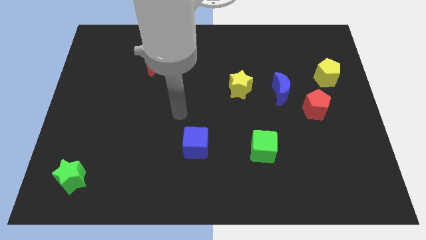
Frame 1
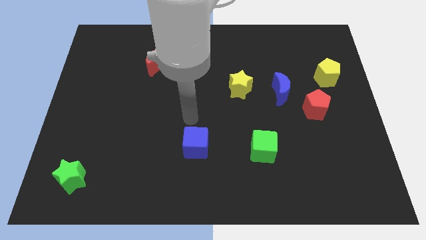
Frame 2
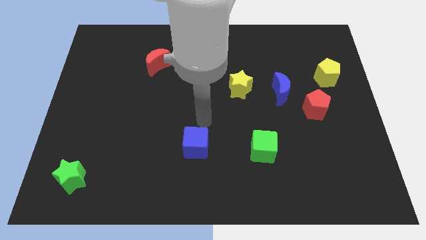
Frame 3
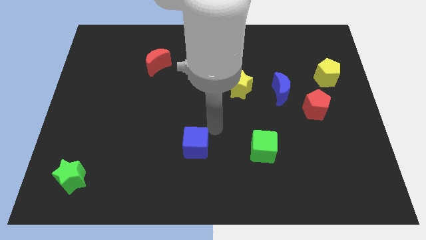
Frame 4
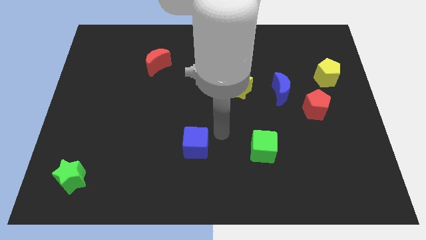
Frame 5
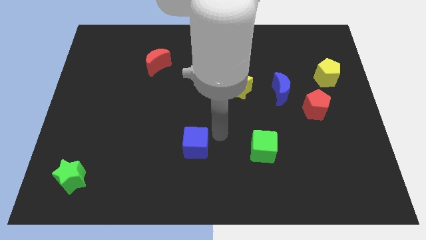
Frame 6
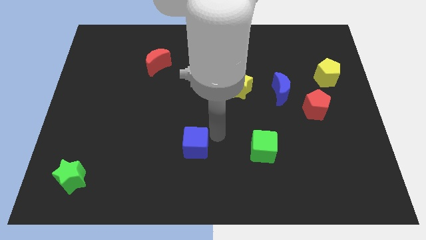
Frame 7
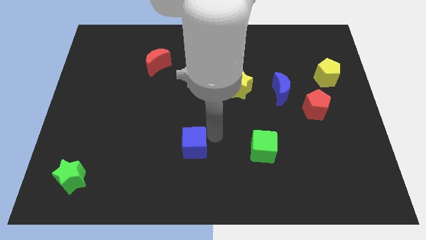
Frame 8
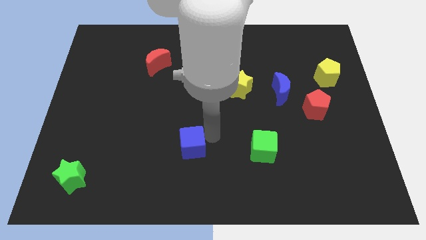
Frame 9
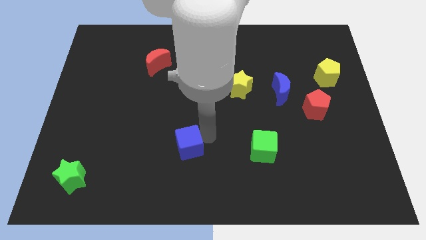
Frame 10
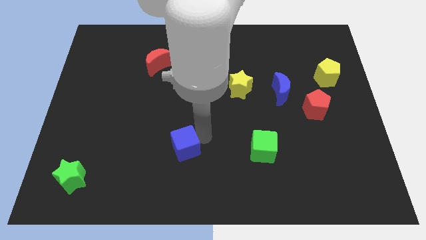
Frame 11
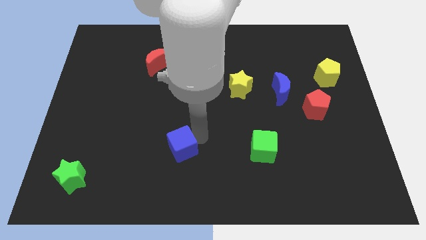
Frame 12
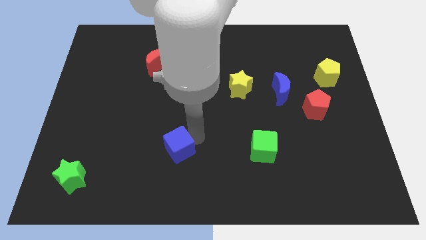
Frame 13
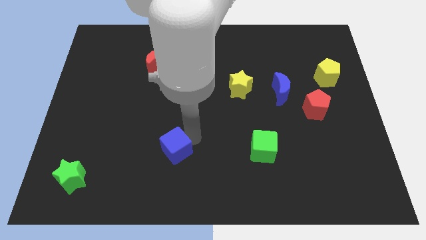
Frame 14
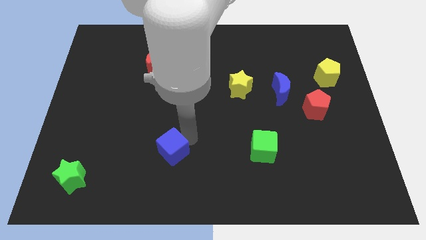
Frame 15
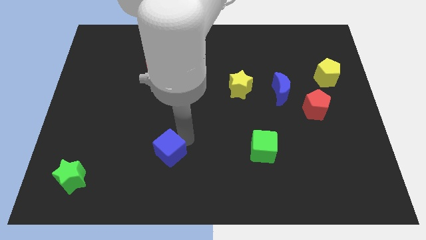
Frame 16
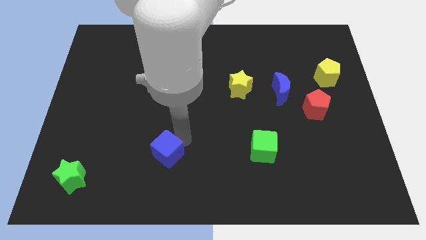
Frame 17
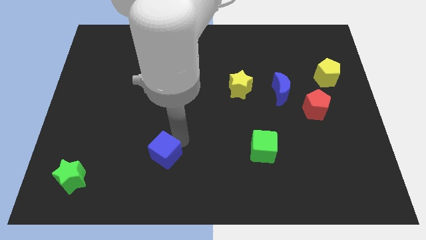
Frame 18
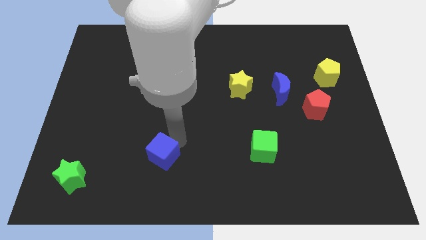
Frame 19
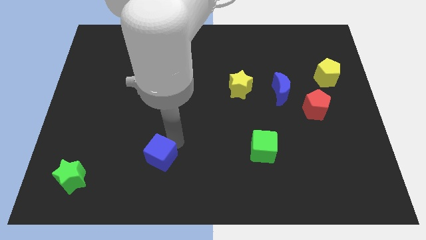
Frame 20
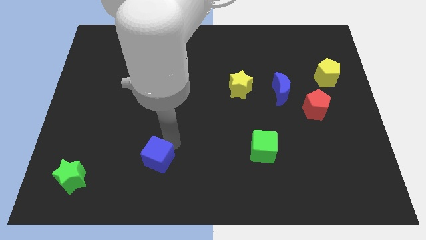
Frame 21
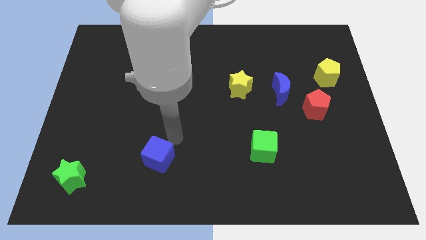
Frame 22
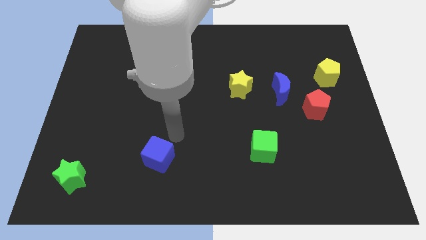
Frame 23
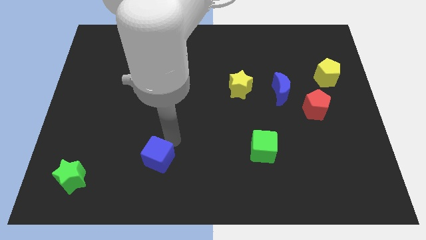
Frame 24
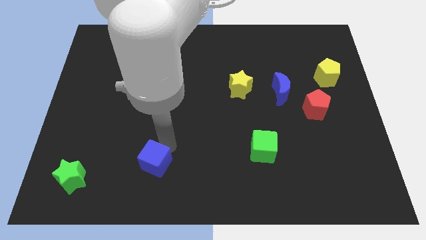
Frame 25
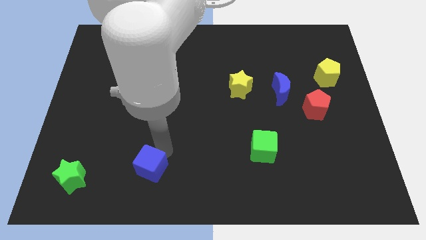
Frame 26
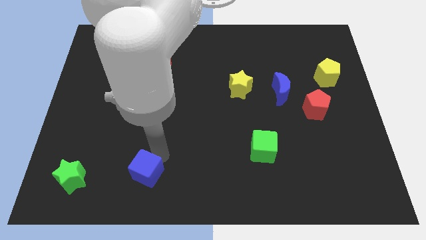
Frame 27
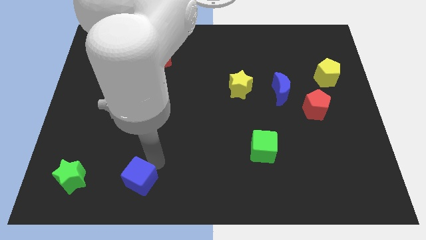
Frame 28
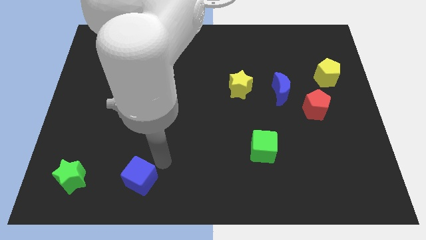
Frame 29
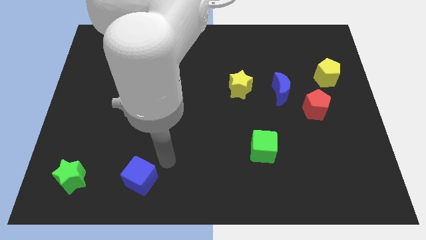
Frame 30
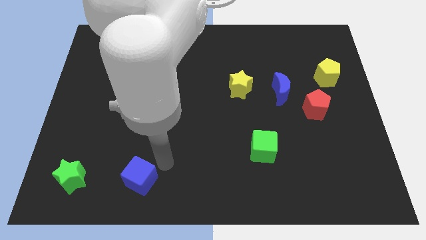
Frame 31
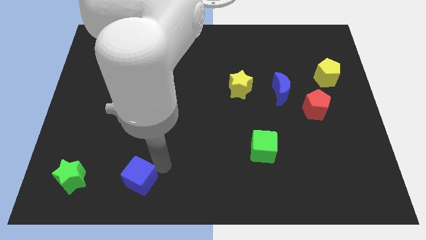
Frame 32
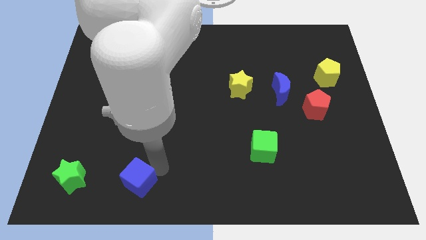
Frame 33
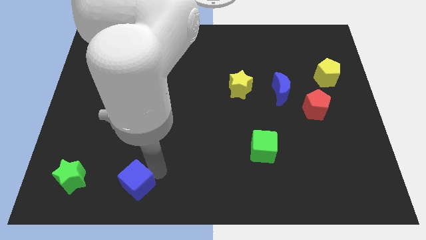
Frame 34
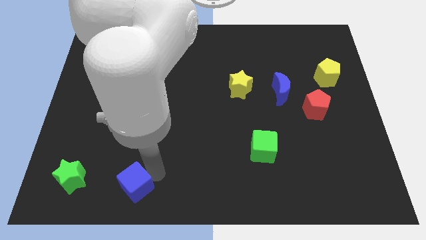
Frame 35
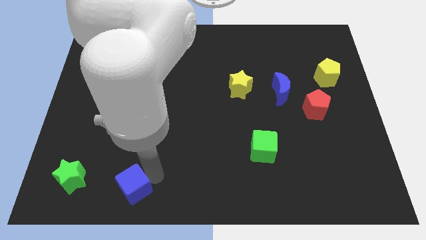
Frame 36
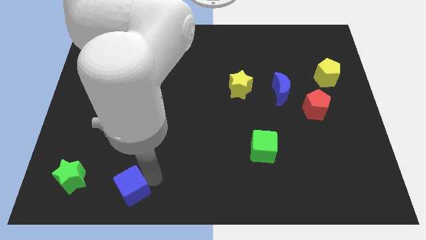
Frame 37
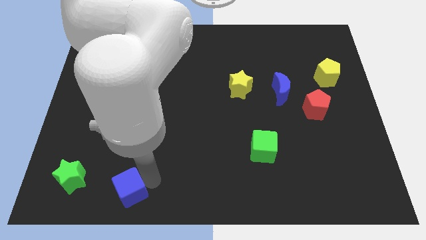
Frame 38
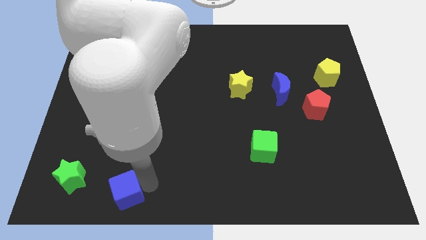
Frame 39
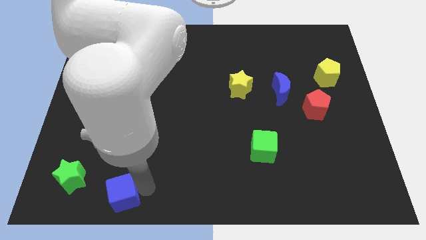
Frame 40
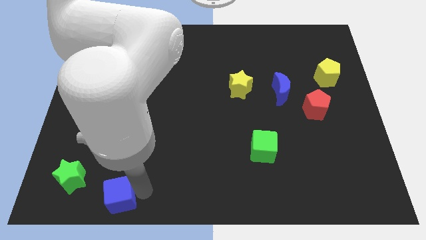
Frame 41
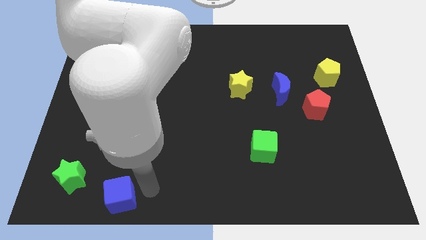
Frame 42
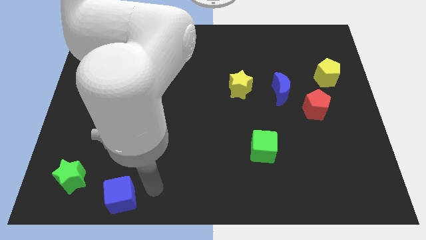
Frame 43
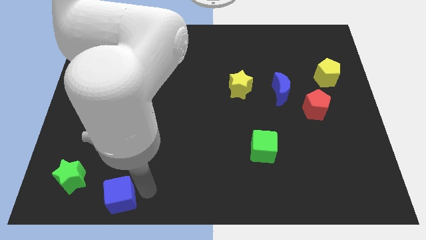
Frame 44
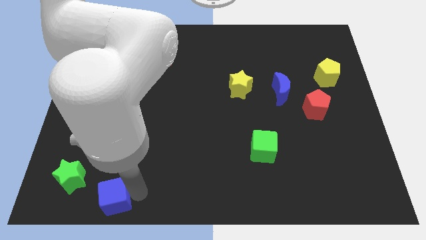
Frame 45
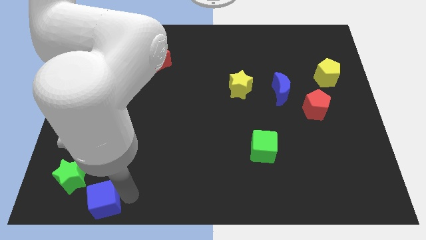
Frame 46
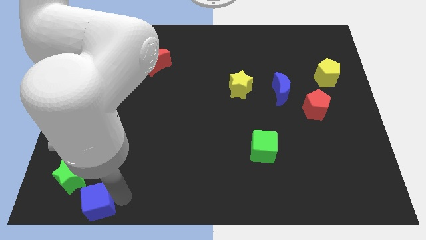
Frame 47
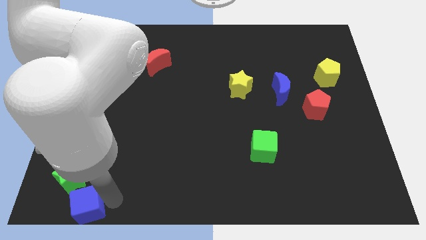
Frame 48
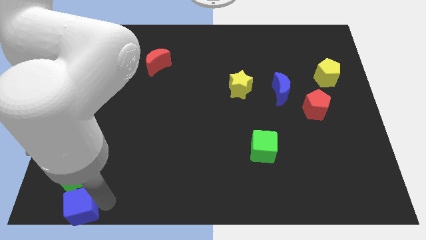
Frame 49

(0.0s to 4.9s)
put the blue cube to the bottom left

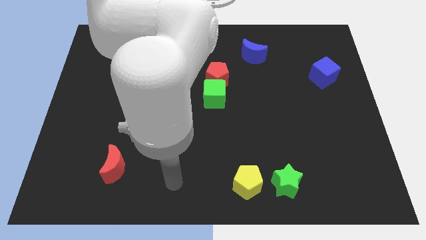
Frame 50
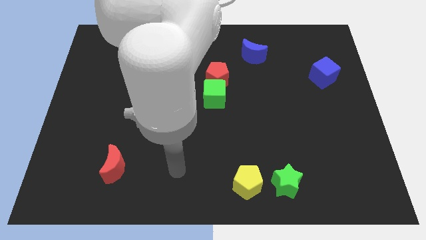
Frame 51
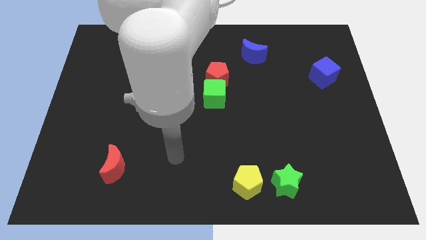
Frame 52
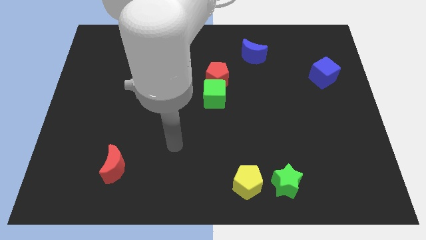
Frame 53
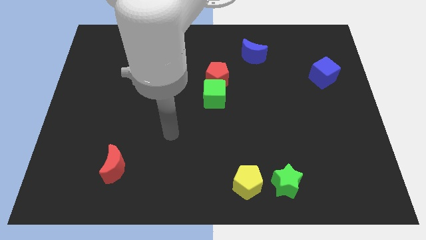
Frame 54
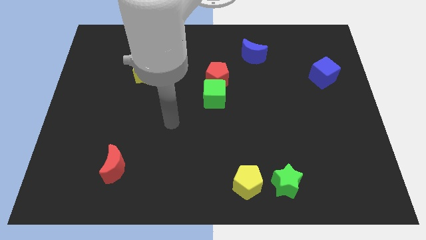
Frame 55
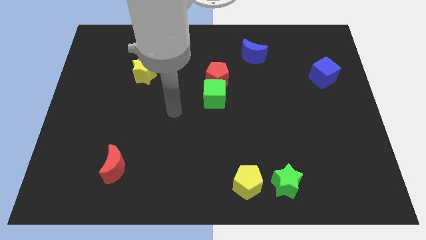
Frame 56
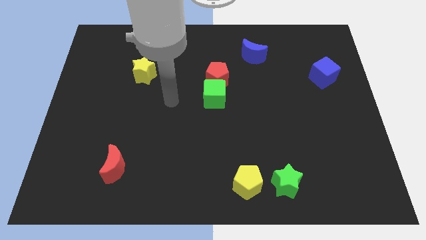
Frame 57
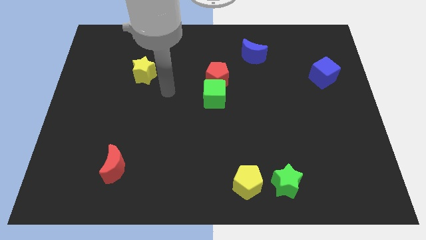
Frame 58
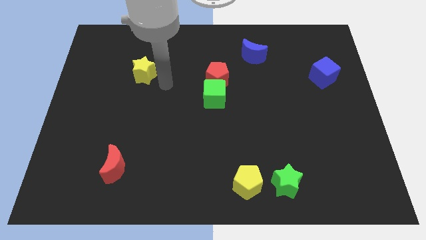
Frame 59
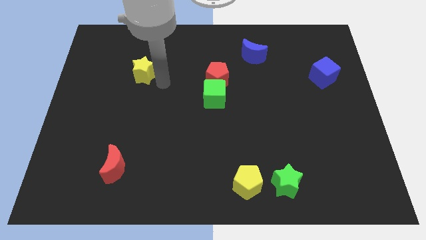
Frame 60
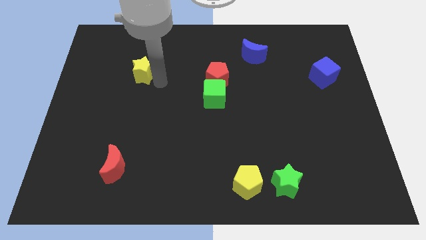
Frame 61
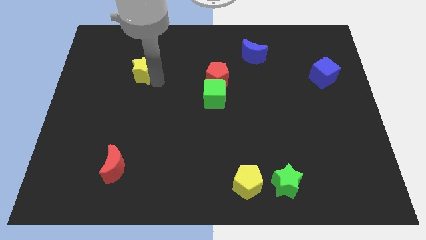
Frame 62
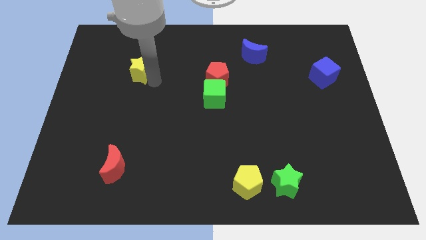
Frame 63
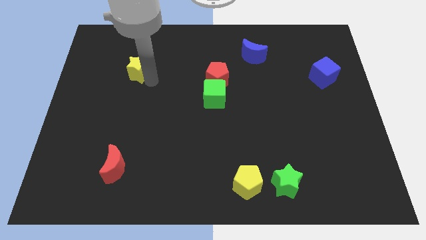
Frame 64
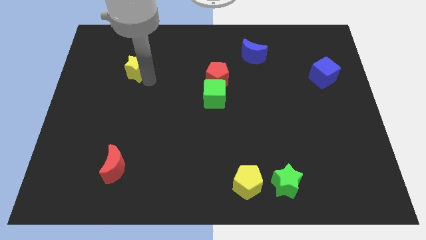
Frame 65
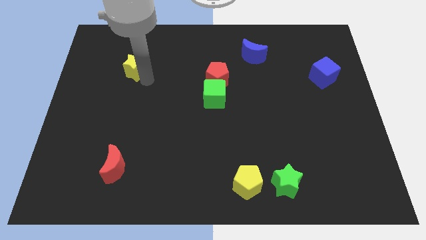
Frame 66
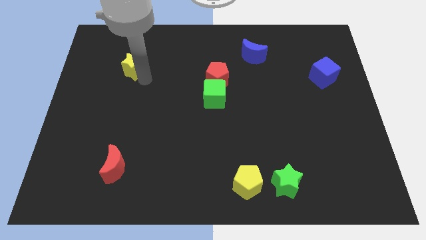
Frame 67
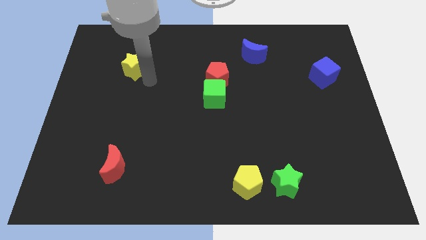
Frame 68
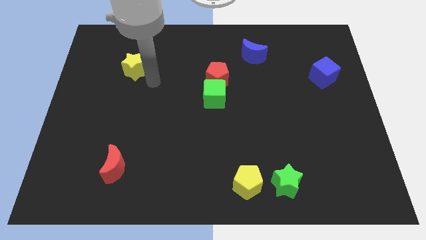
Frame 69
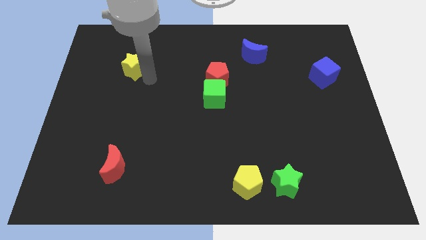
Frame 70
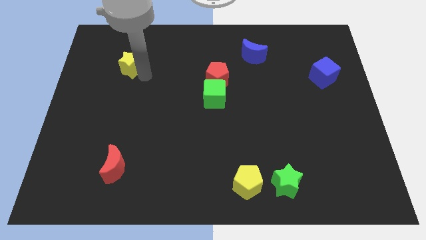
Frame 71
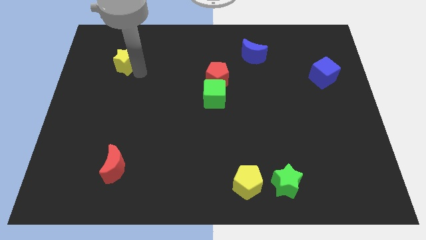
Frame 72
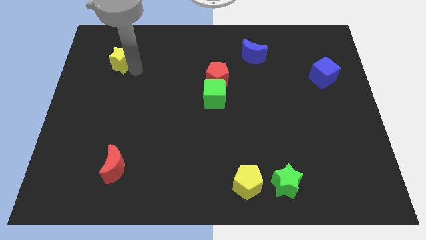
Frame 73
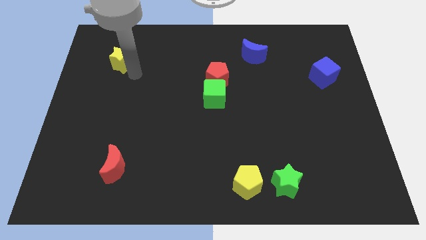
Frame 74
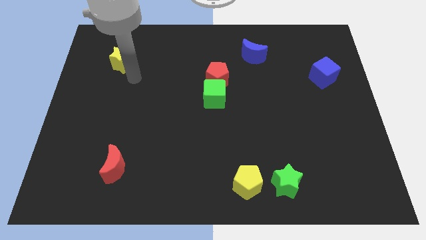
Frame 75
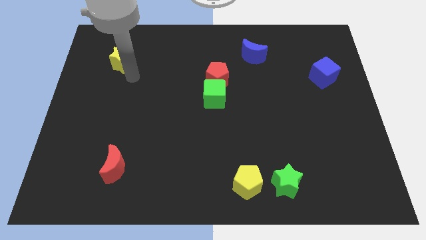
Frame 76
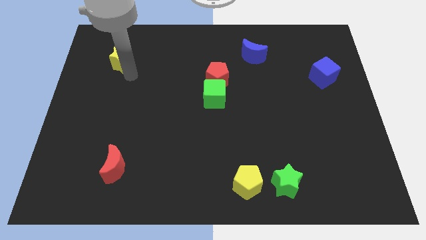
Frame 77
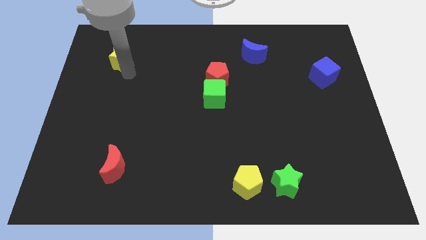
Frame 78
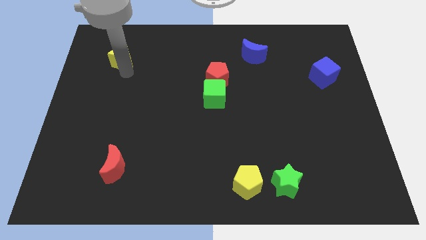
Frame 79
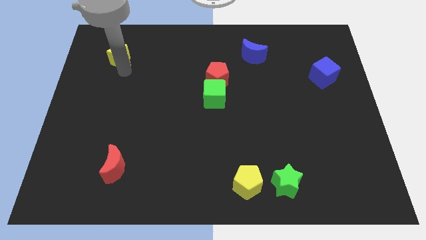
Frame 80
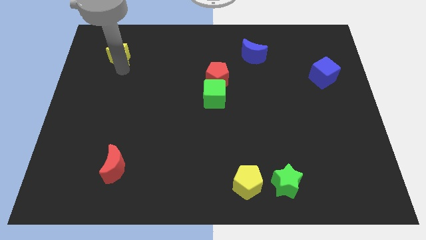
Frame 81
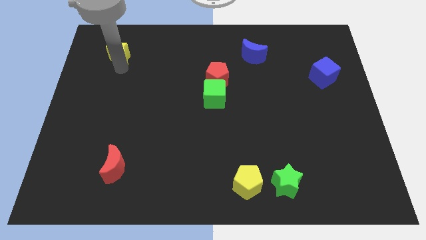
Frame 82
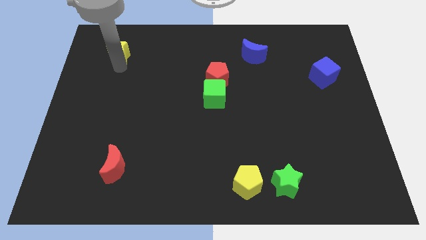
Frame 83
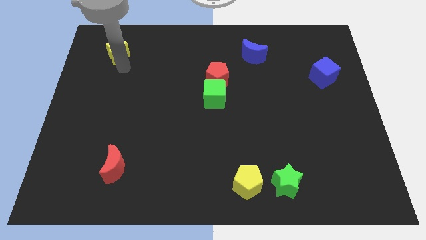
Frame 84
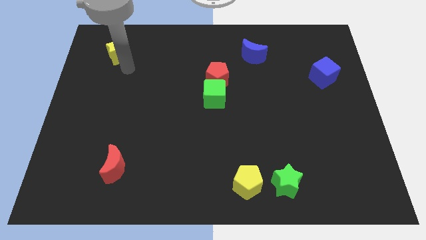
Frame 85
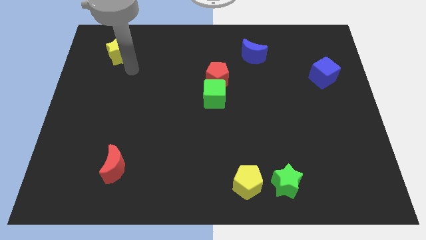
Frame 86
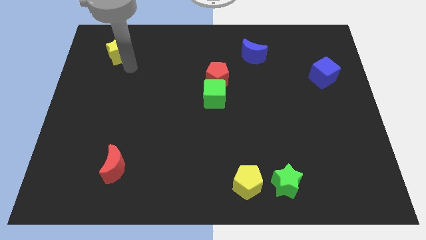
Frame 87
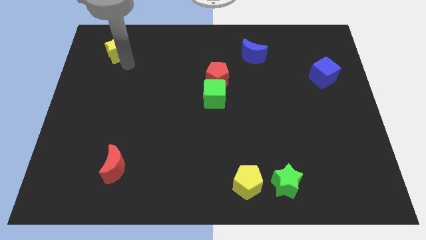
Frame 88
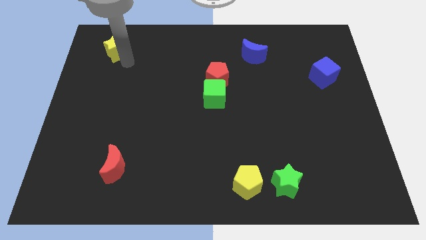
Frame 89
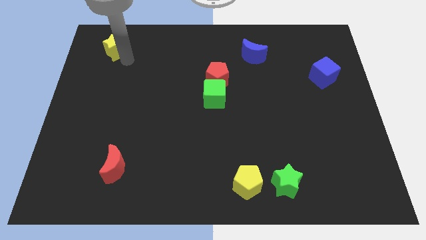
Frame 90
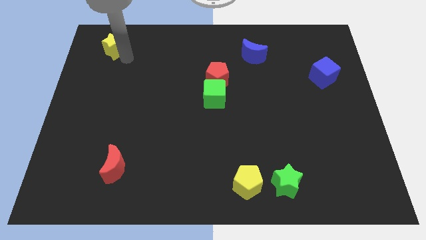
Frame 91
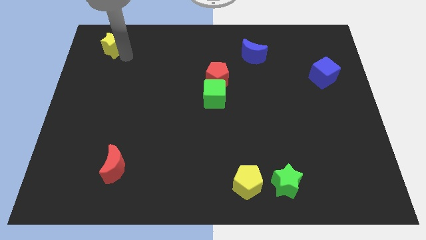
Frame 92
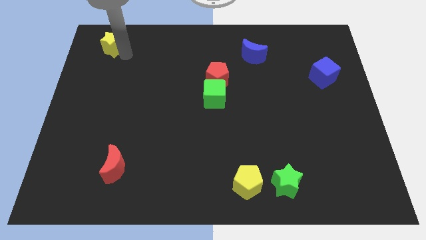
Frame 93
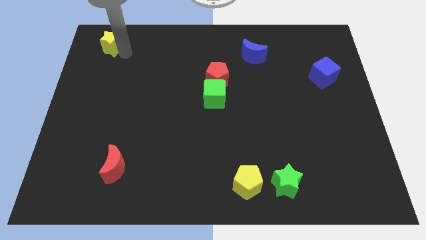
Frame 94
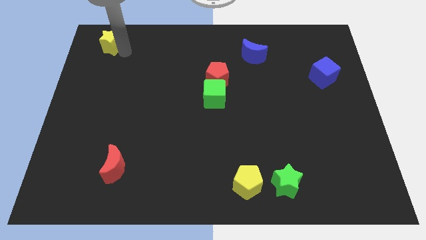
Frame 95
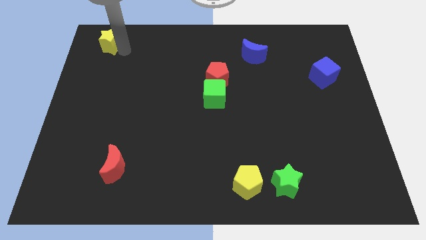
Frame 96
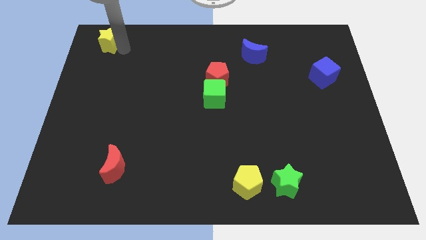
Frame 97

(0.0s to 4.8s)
push the yellow star to the top left corner
